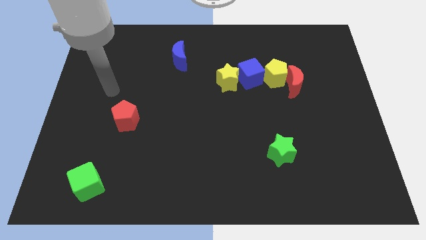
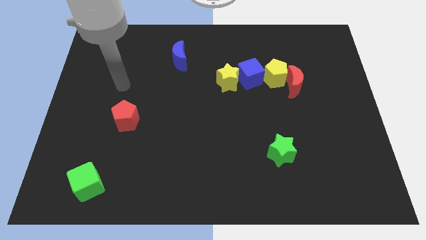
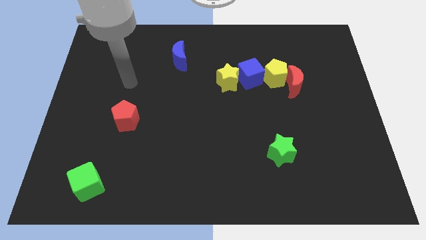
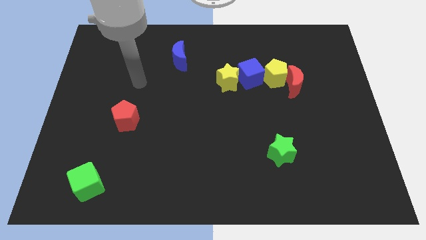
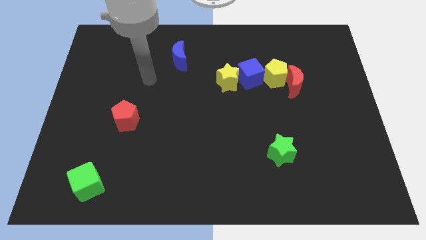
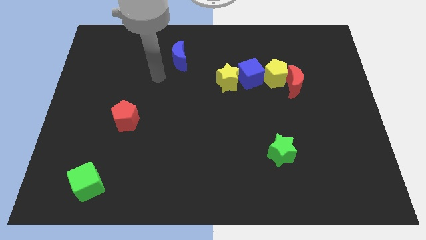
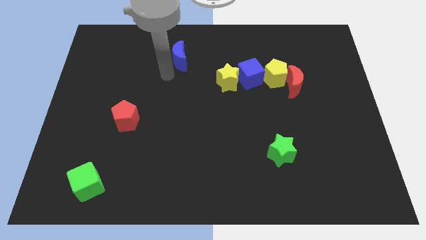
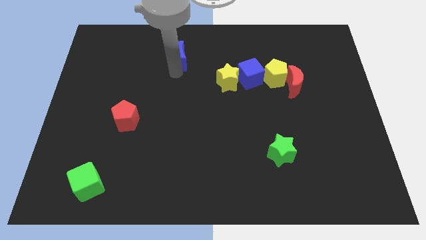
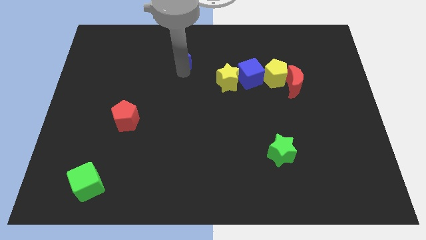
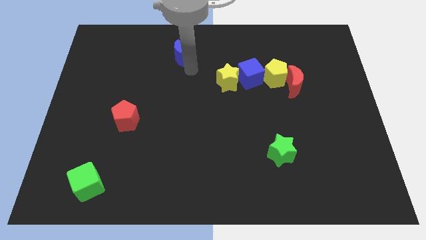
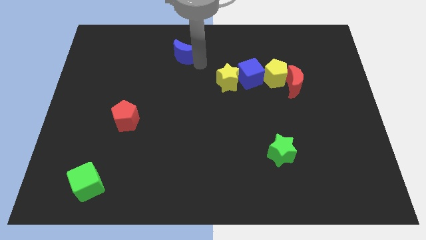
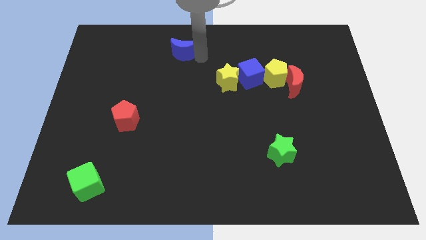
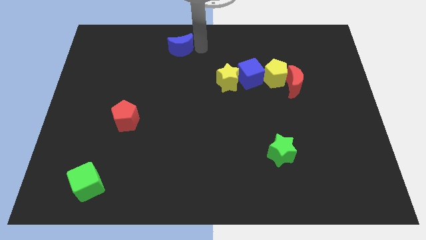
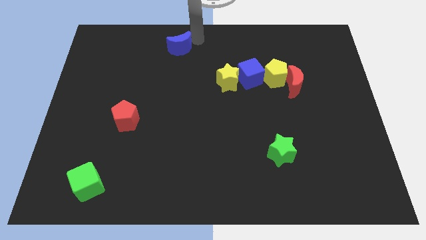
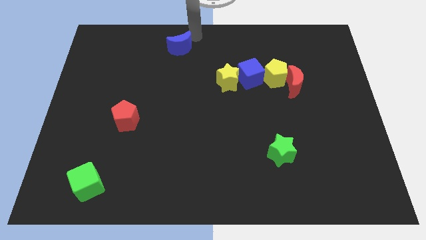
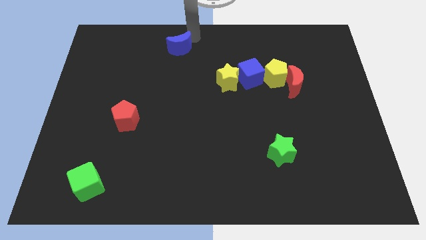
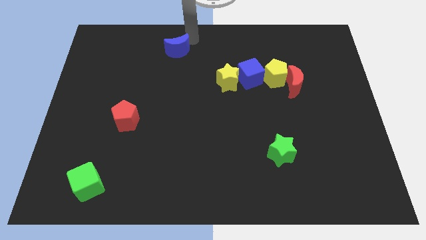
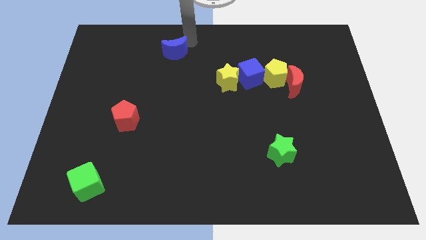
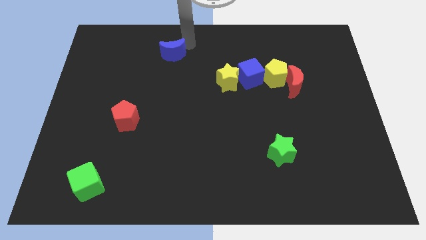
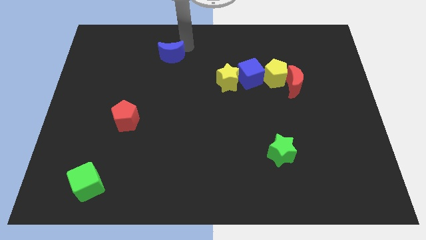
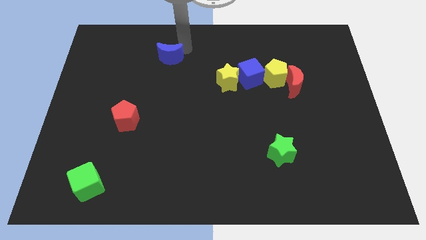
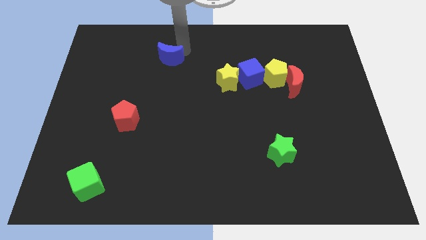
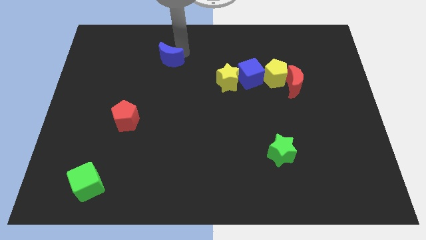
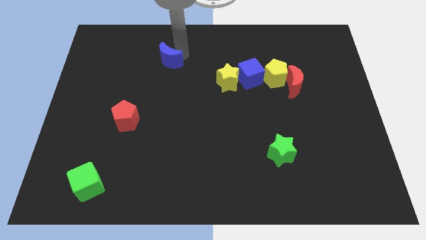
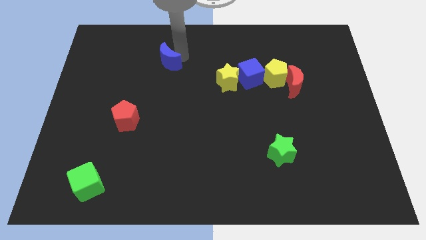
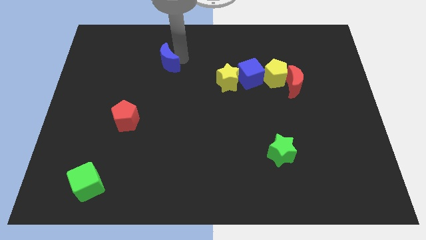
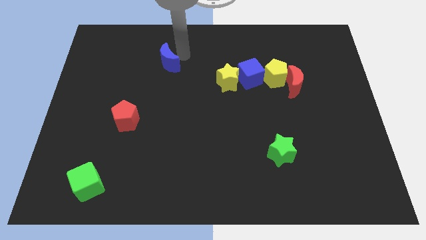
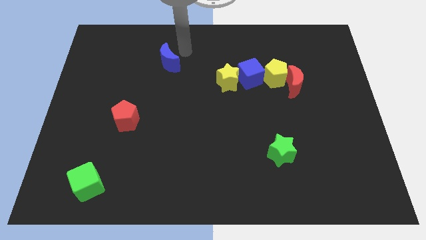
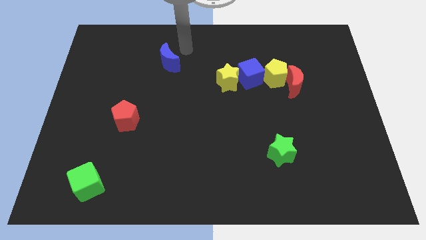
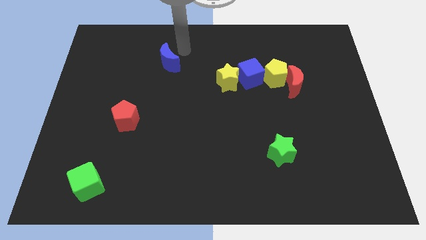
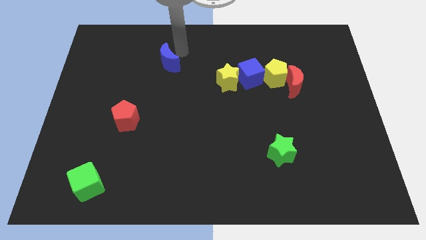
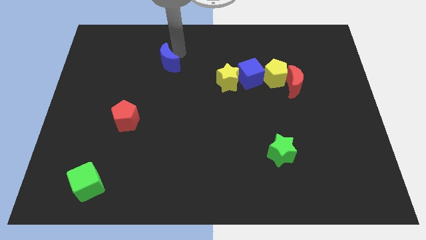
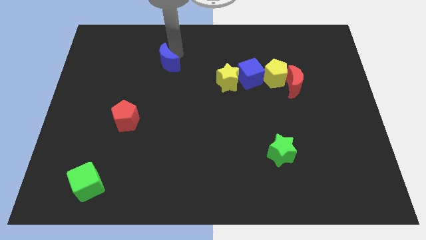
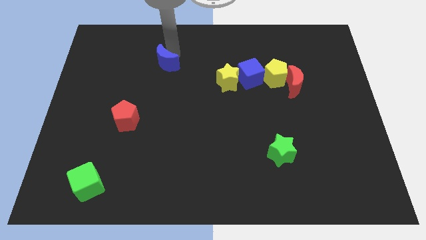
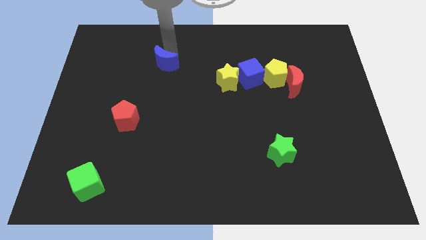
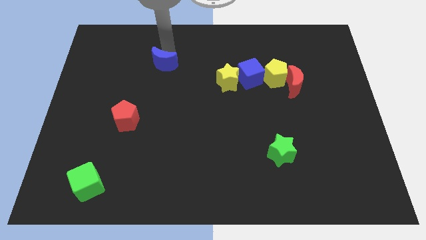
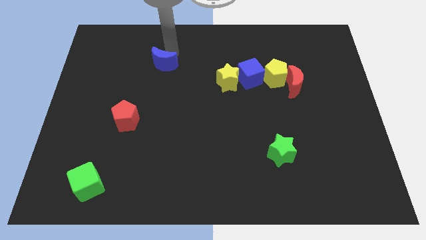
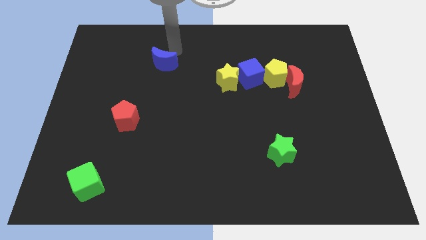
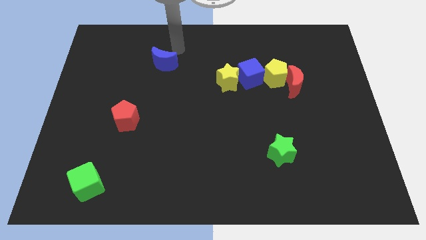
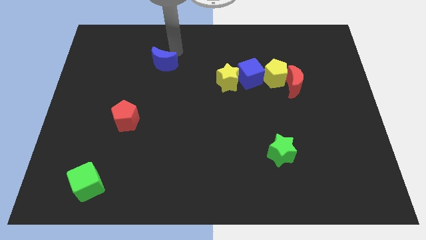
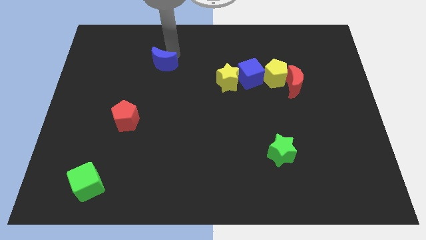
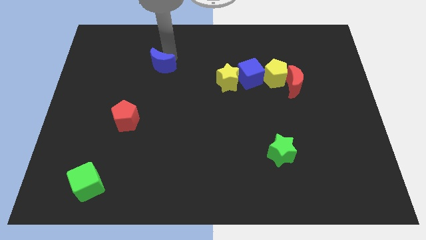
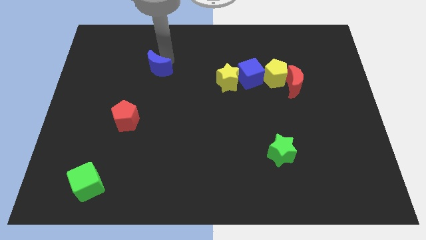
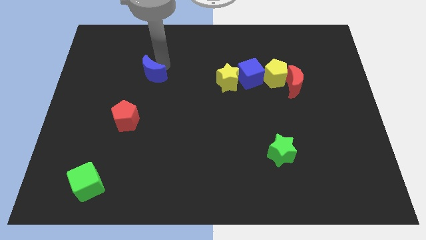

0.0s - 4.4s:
move the blue moon a little bit downwards and left diagonally

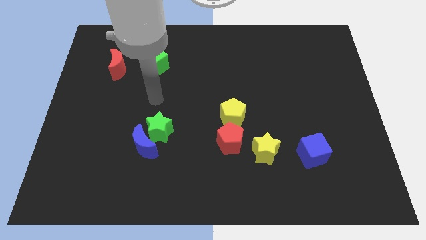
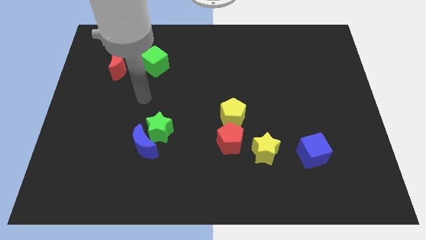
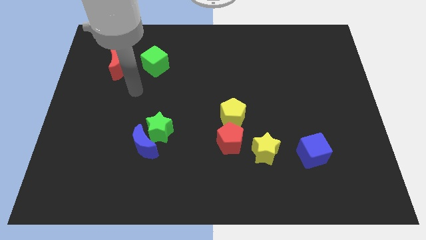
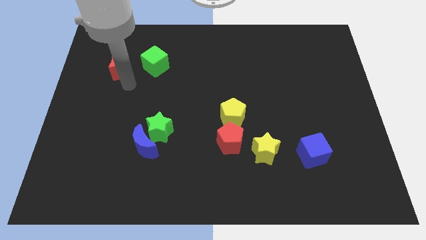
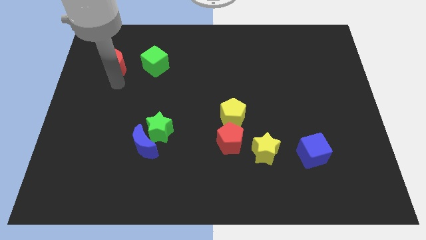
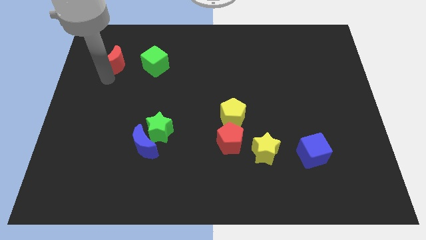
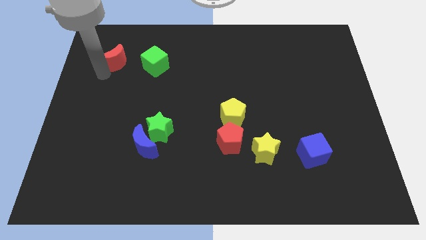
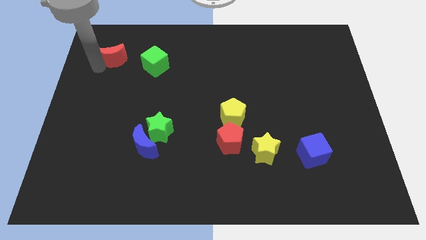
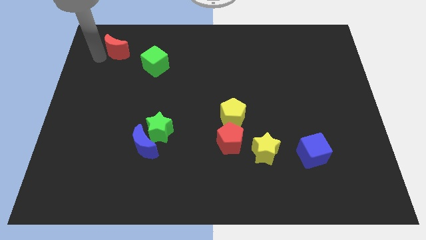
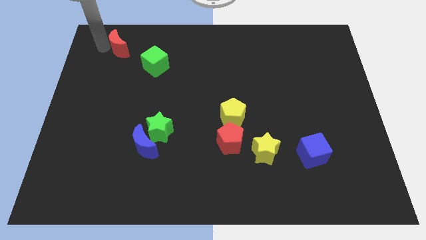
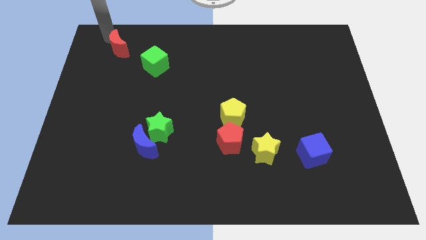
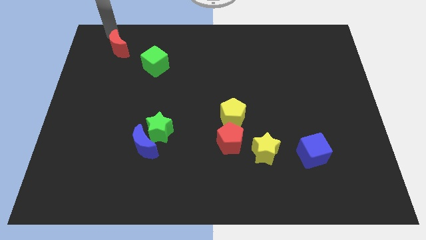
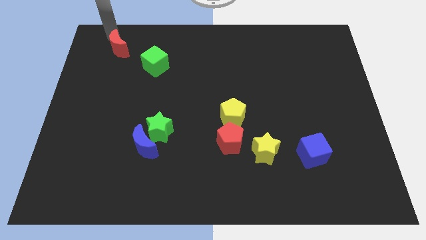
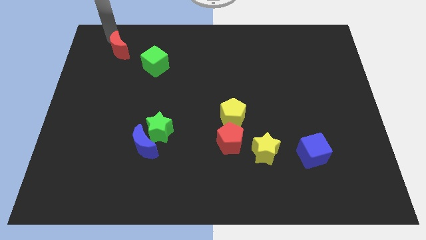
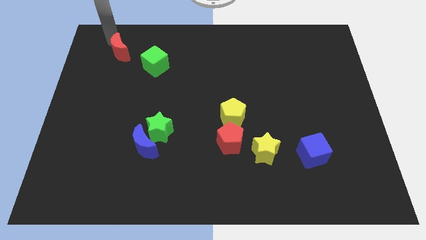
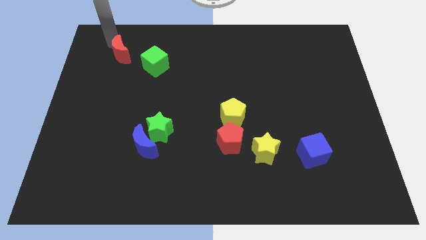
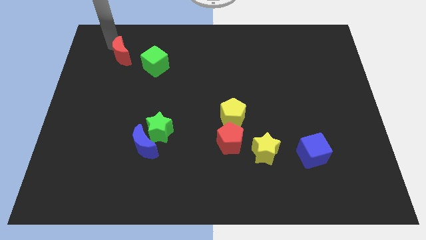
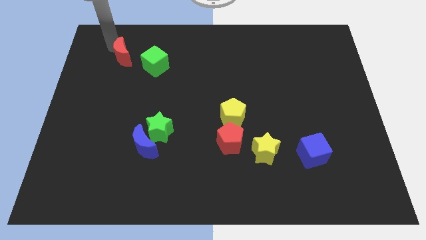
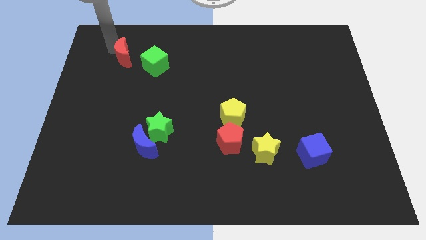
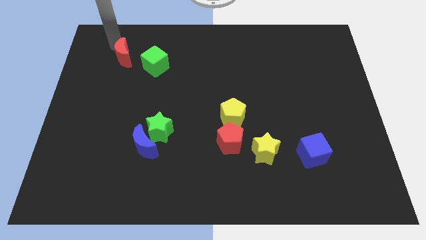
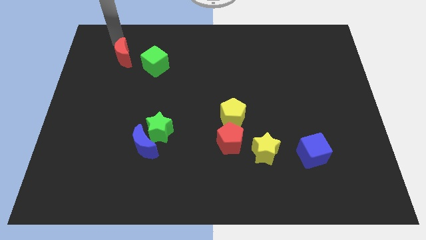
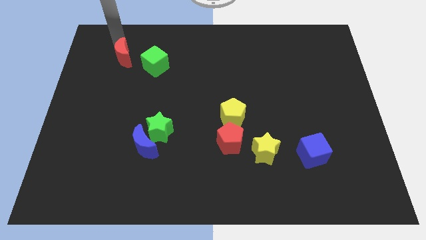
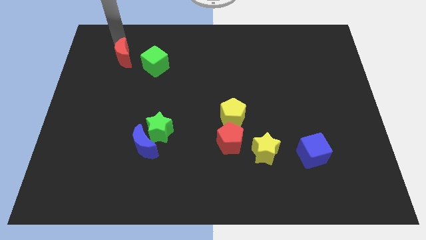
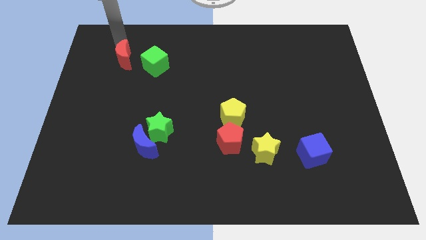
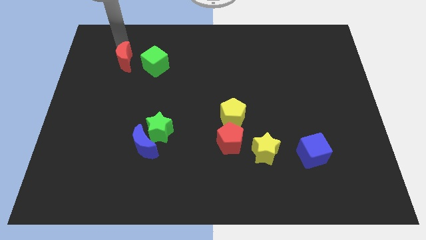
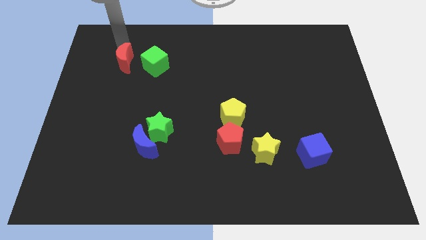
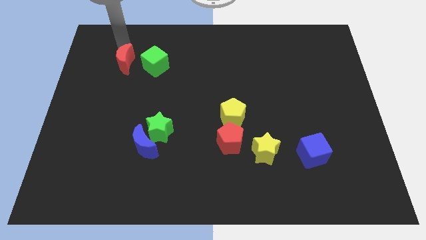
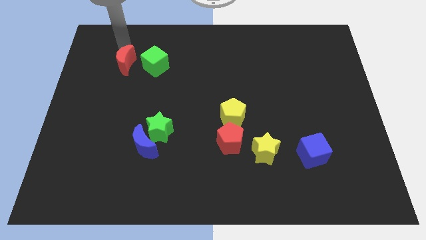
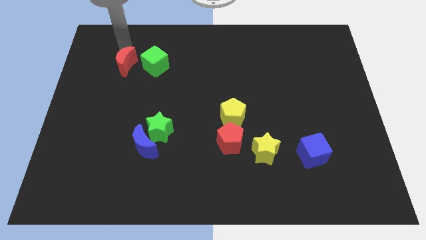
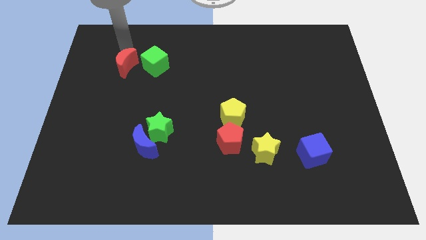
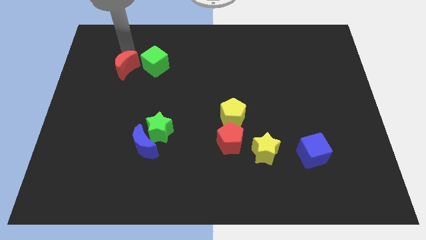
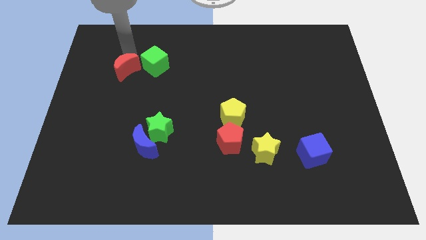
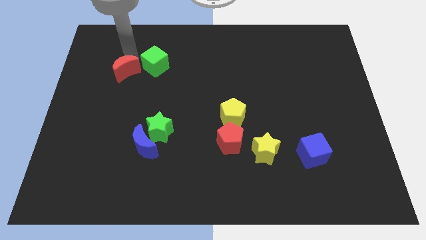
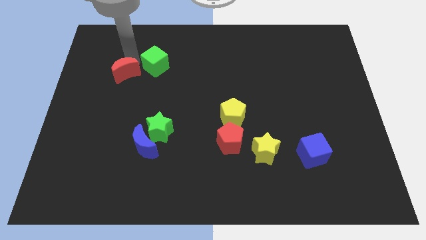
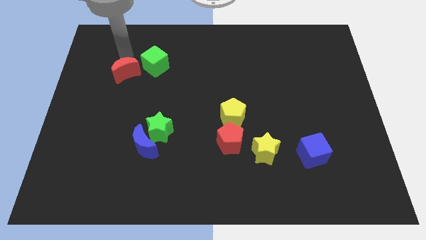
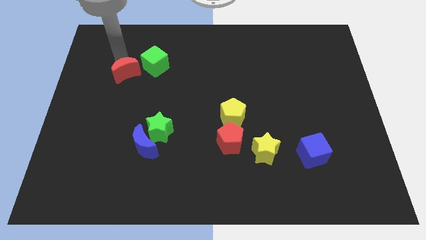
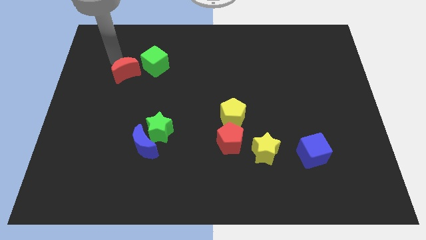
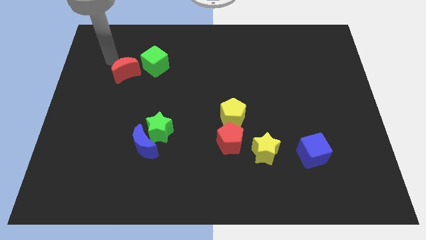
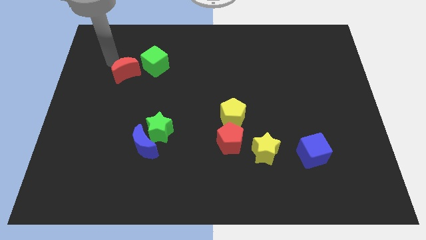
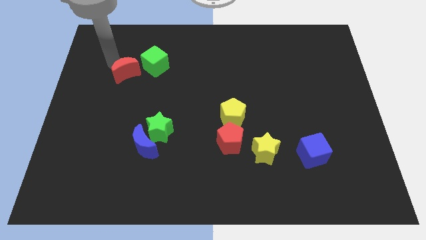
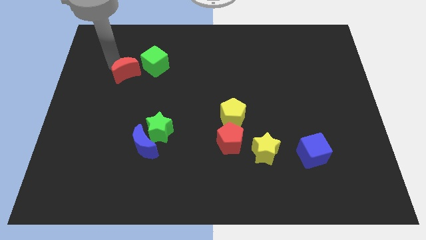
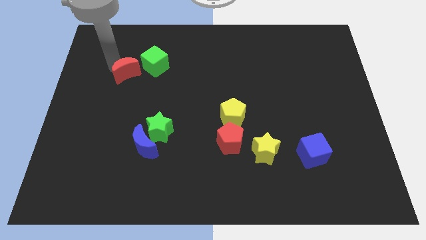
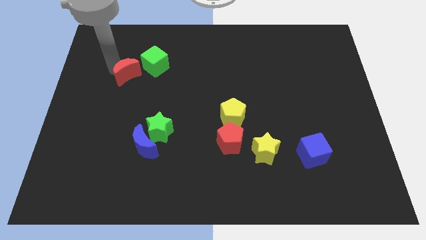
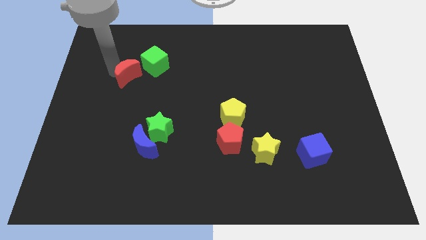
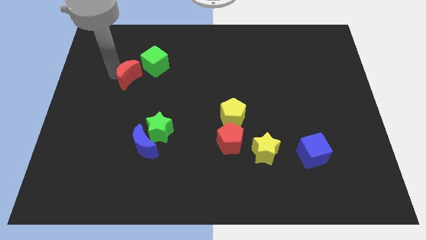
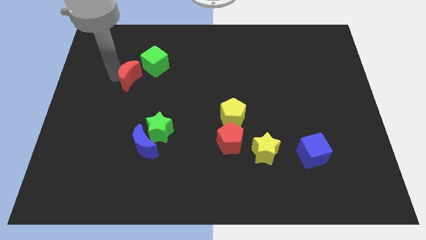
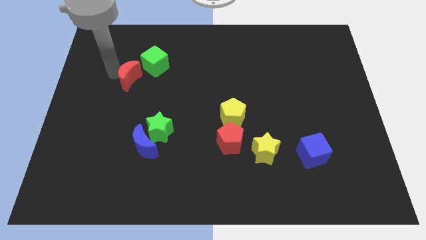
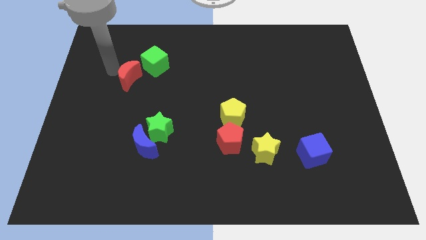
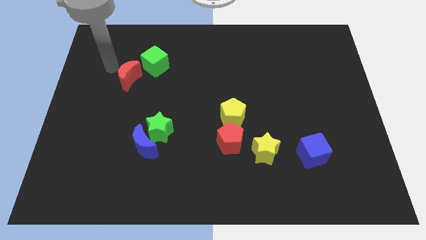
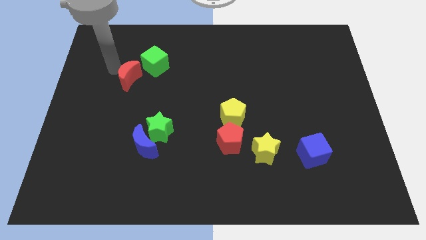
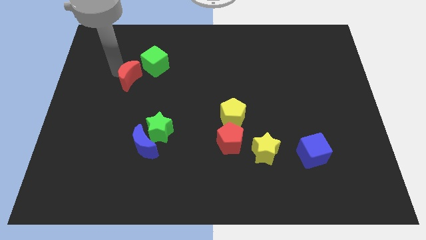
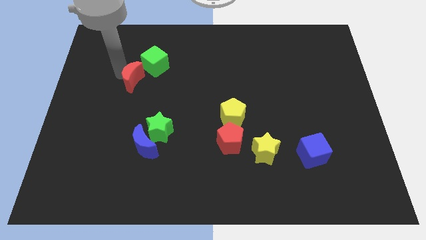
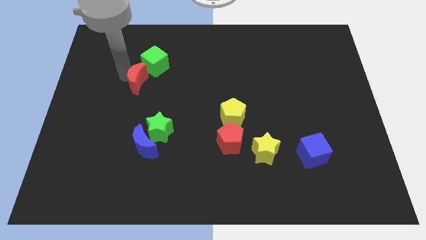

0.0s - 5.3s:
move the red moon down and right diagonally a bit
